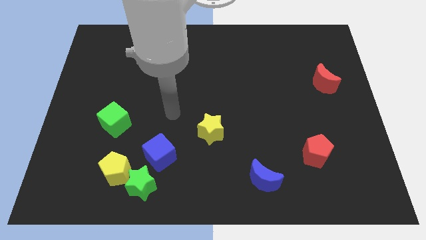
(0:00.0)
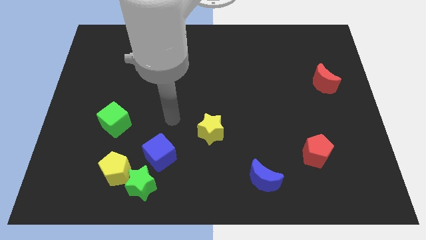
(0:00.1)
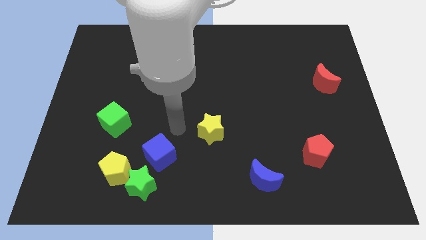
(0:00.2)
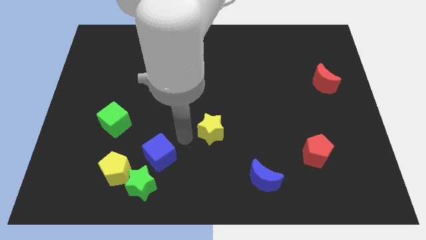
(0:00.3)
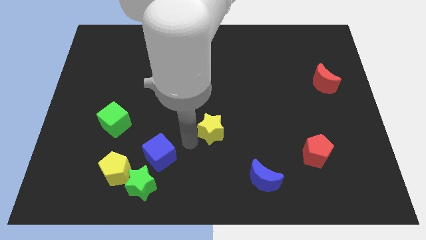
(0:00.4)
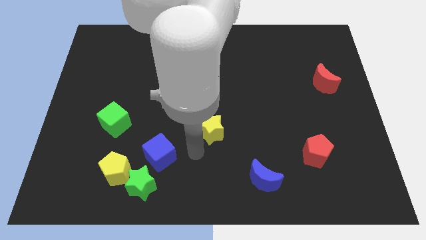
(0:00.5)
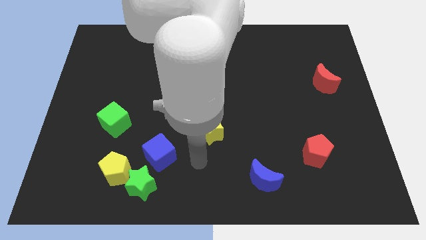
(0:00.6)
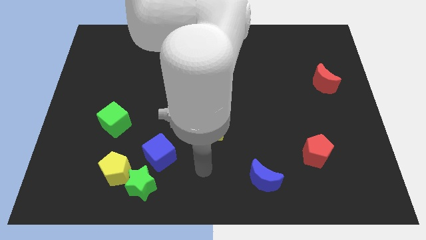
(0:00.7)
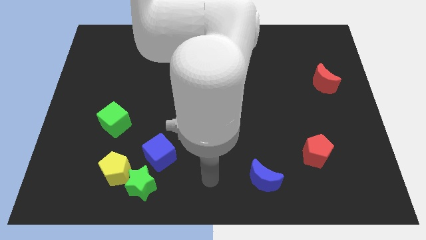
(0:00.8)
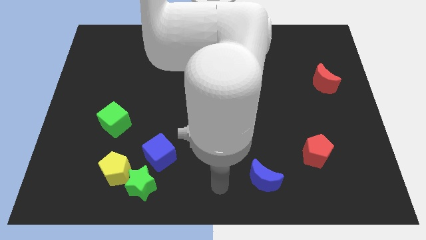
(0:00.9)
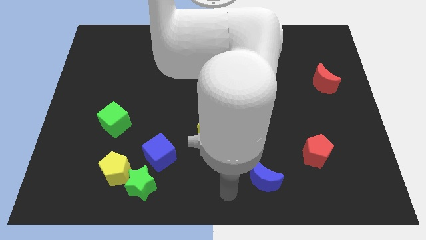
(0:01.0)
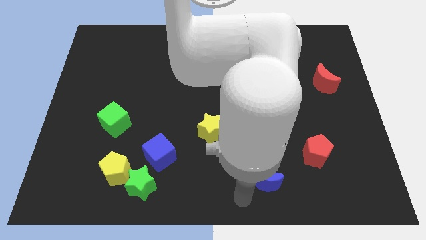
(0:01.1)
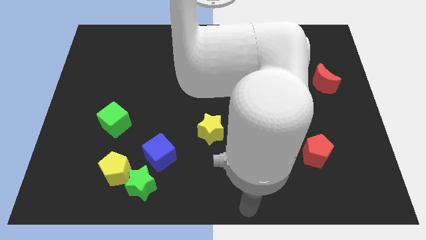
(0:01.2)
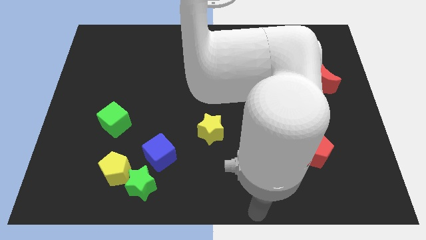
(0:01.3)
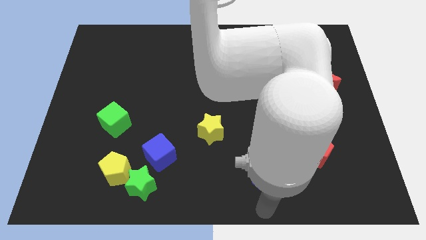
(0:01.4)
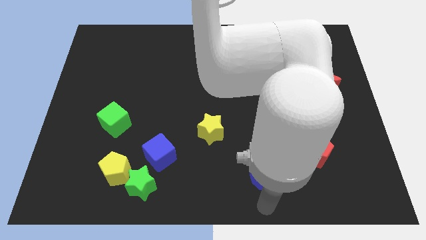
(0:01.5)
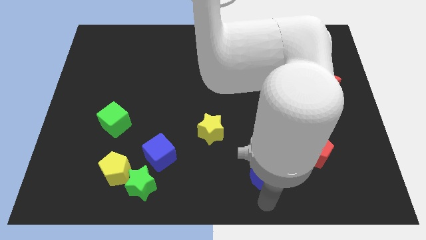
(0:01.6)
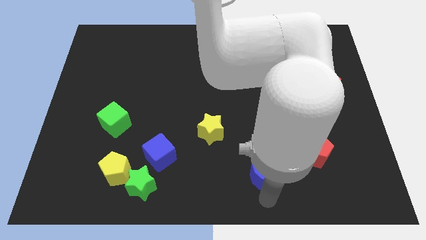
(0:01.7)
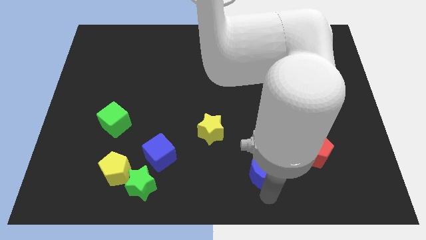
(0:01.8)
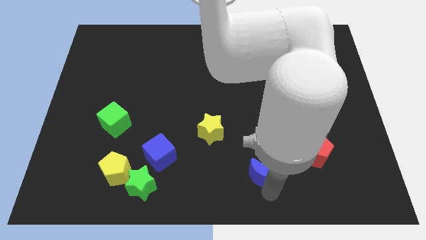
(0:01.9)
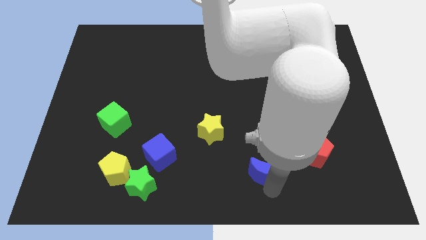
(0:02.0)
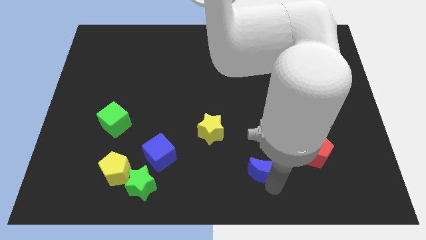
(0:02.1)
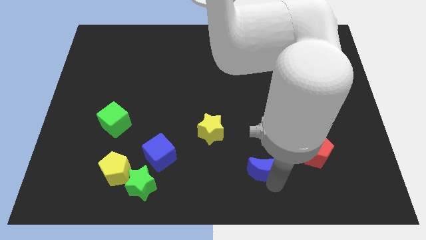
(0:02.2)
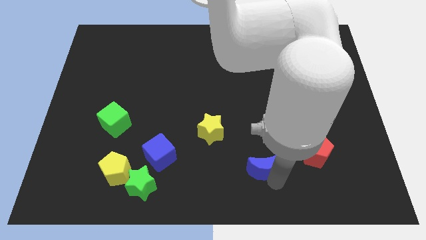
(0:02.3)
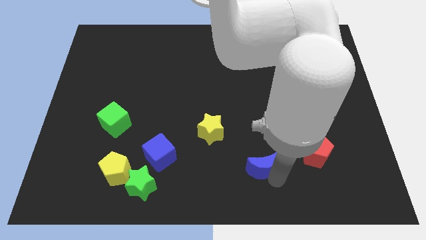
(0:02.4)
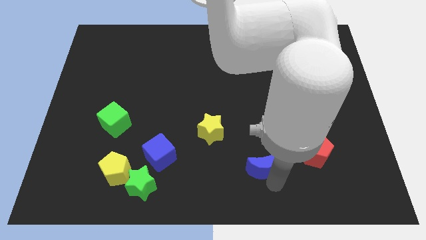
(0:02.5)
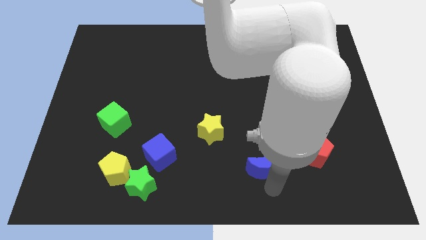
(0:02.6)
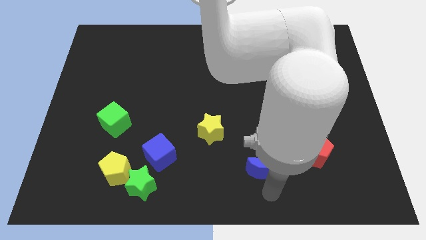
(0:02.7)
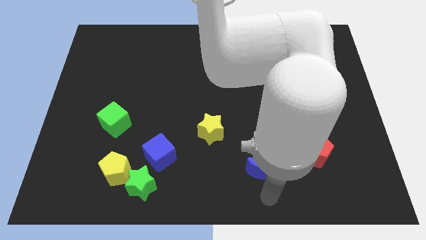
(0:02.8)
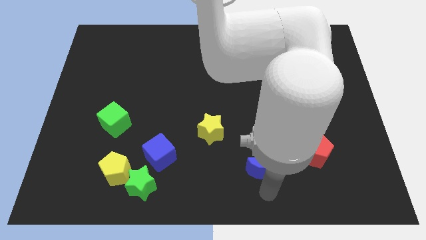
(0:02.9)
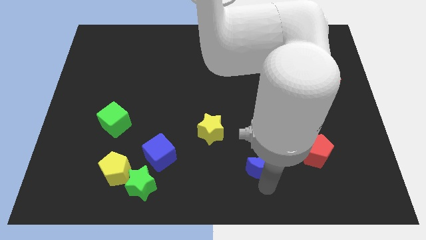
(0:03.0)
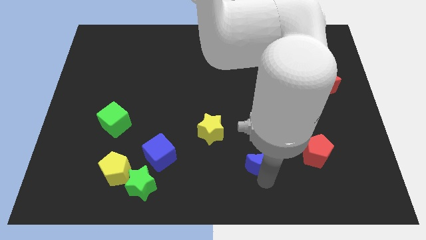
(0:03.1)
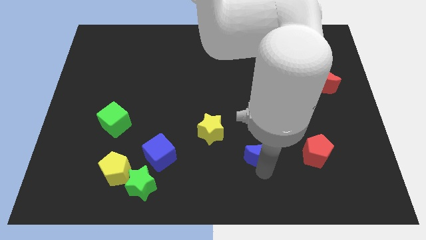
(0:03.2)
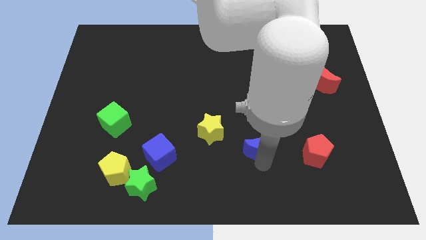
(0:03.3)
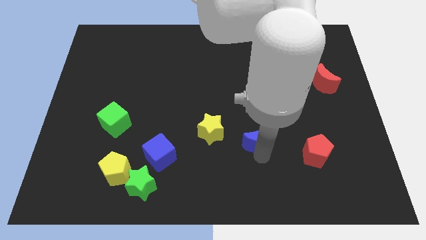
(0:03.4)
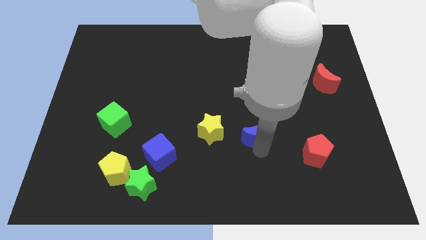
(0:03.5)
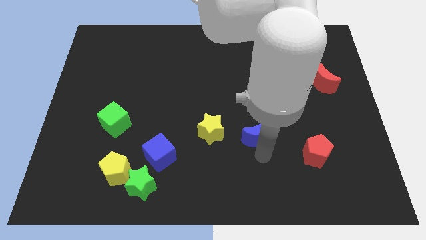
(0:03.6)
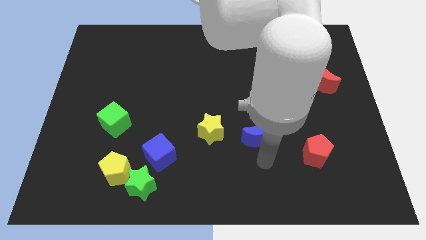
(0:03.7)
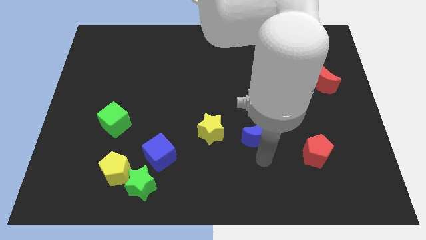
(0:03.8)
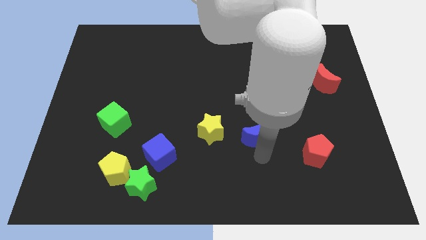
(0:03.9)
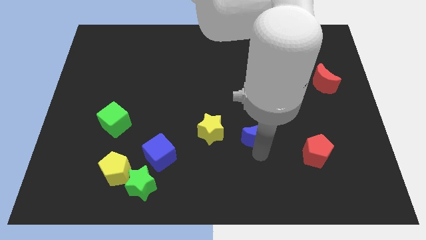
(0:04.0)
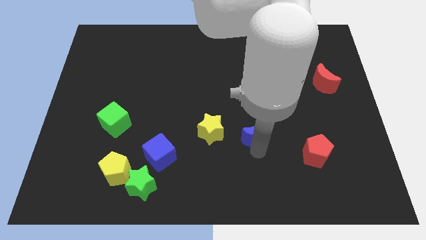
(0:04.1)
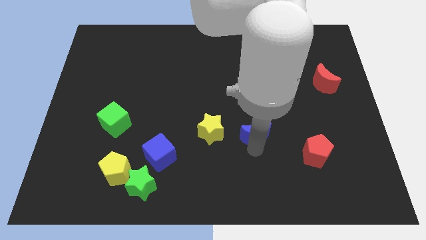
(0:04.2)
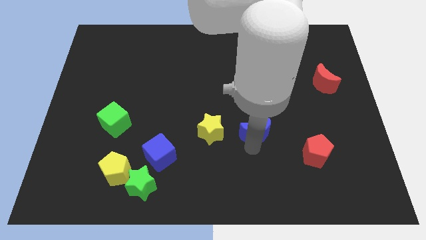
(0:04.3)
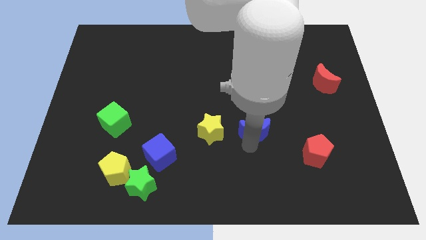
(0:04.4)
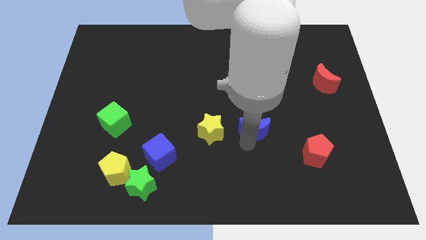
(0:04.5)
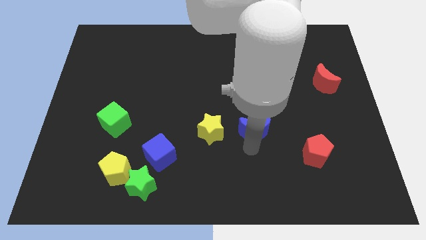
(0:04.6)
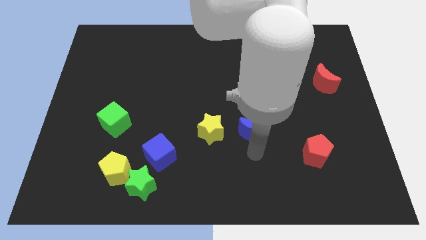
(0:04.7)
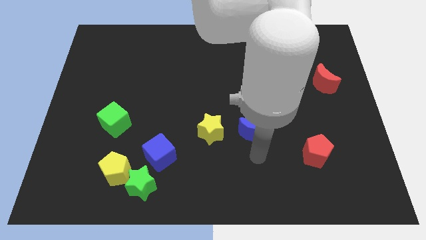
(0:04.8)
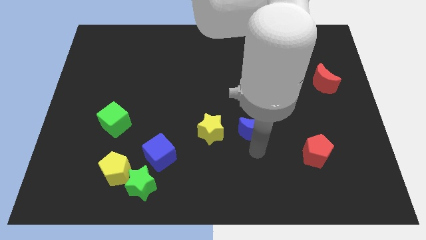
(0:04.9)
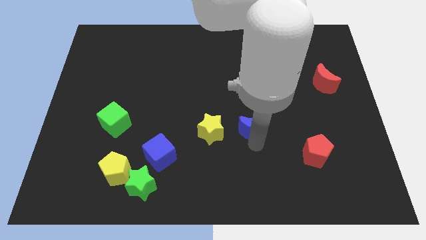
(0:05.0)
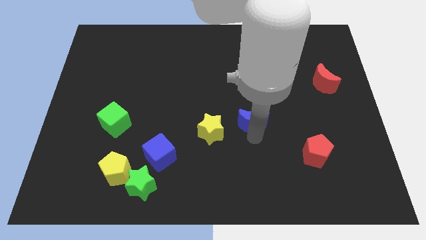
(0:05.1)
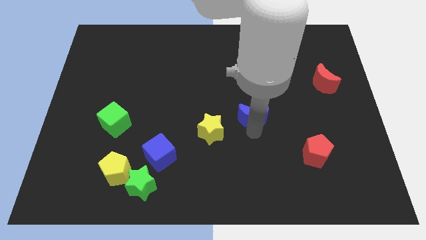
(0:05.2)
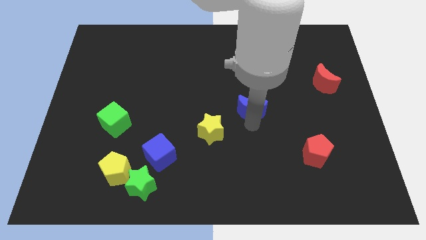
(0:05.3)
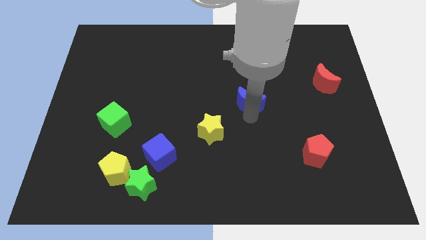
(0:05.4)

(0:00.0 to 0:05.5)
slide the blue moon up

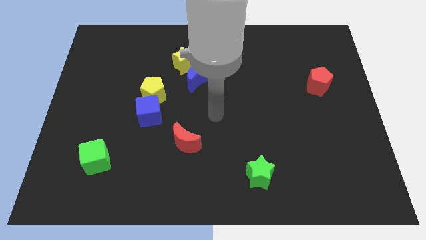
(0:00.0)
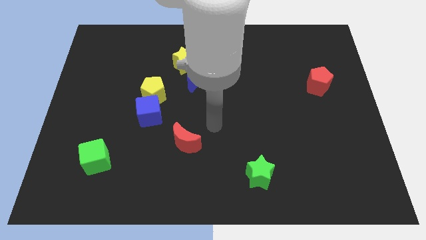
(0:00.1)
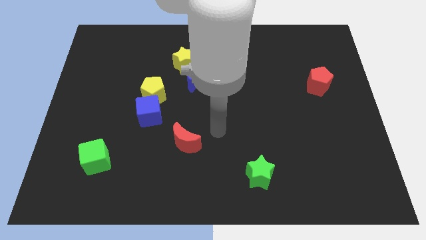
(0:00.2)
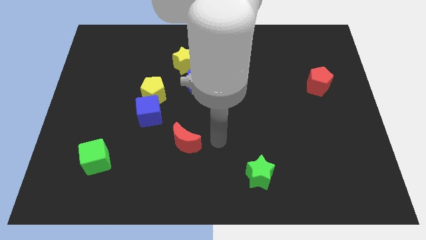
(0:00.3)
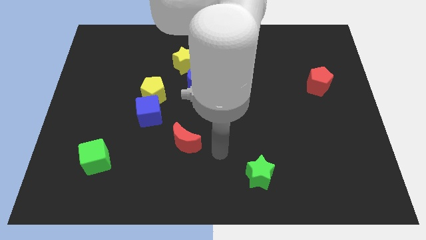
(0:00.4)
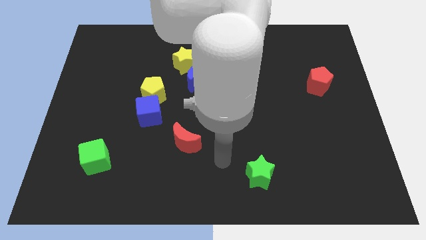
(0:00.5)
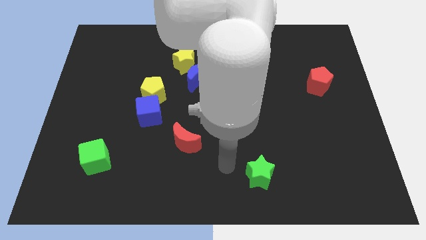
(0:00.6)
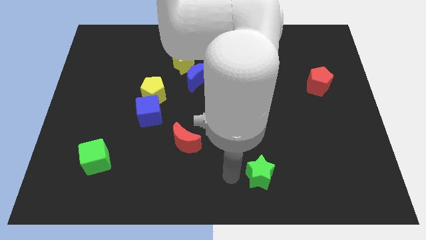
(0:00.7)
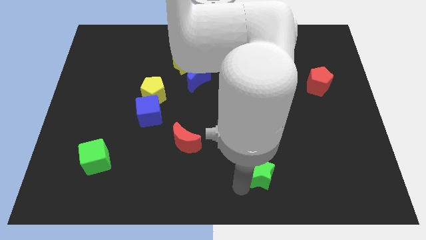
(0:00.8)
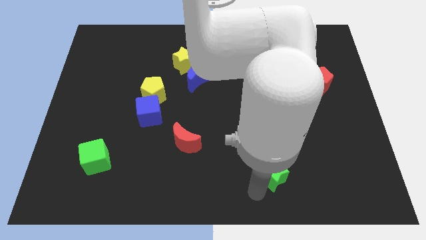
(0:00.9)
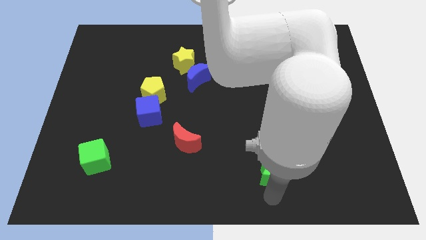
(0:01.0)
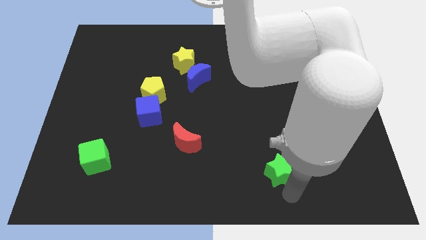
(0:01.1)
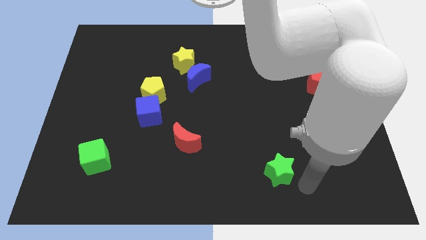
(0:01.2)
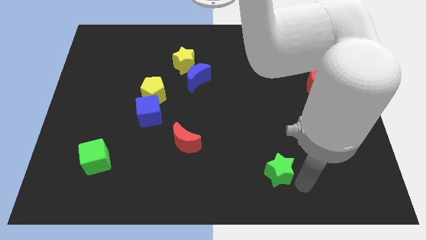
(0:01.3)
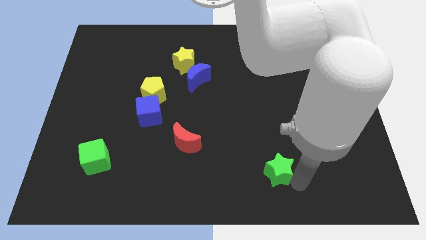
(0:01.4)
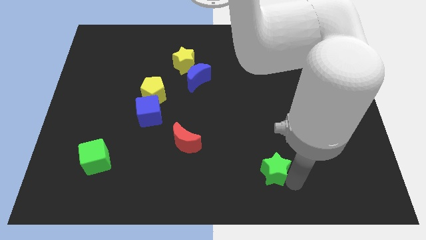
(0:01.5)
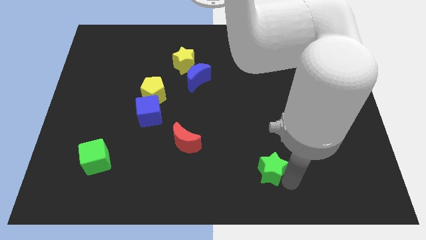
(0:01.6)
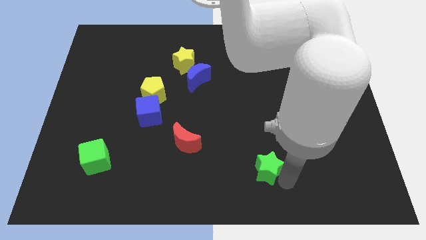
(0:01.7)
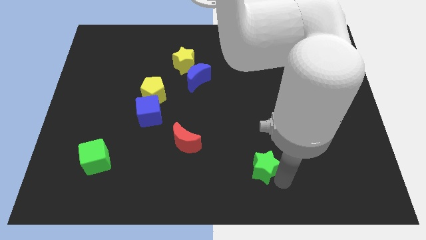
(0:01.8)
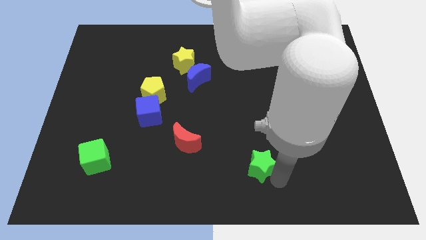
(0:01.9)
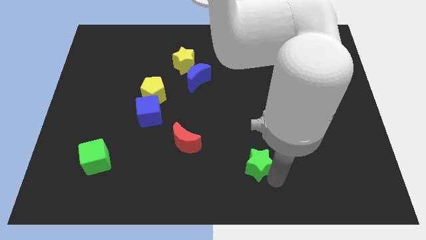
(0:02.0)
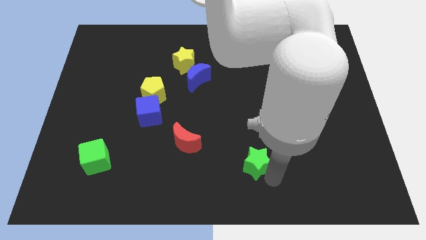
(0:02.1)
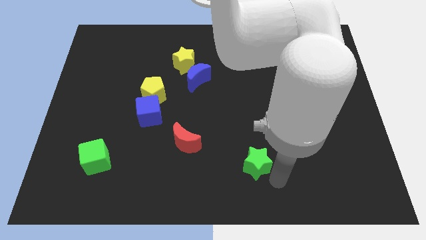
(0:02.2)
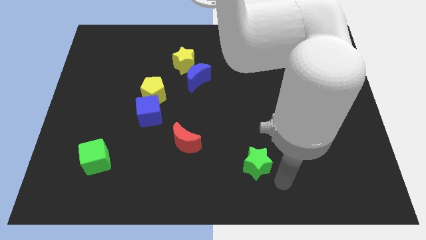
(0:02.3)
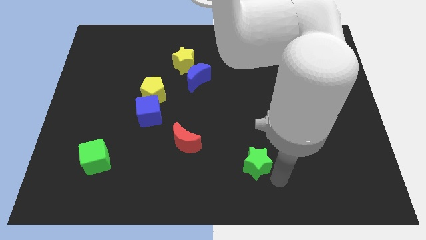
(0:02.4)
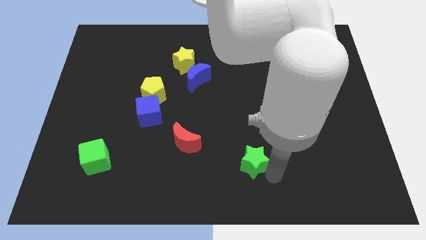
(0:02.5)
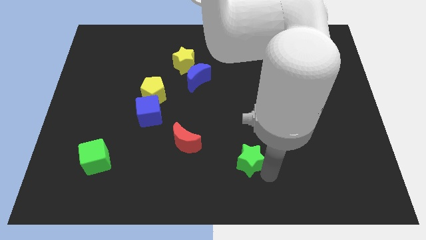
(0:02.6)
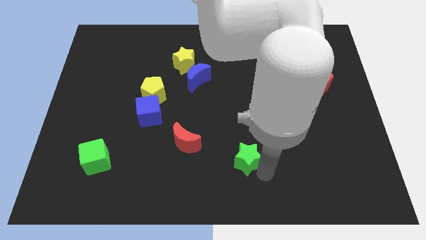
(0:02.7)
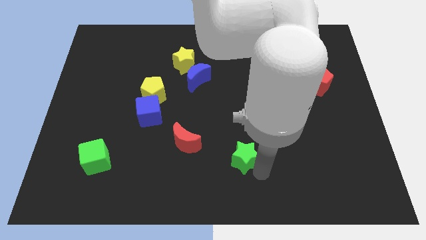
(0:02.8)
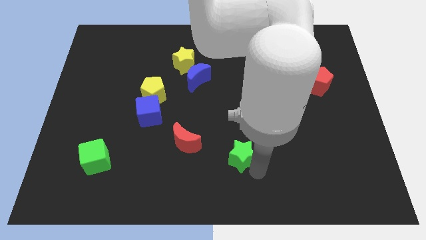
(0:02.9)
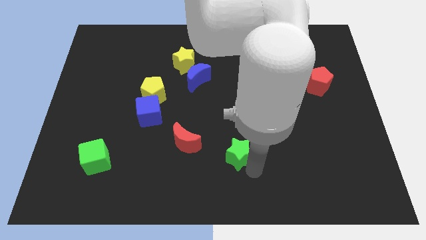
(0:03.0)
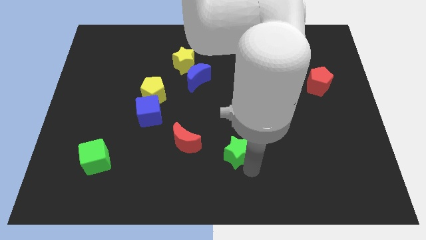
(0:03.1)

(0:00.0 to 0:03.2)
push the green star somewhat upwards and to the left
